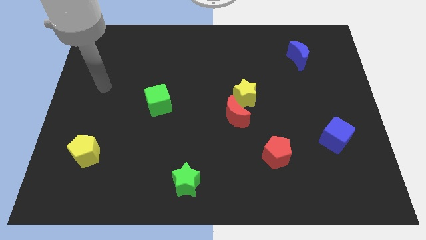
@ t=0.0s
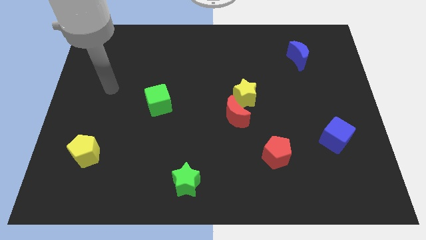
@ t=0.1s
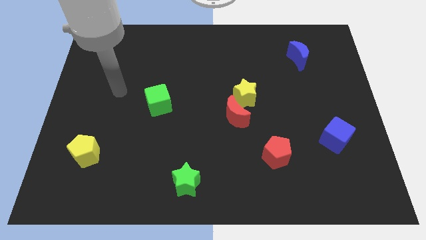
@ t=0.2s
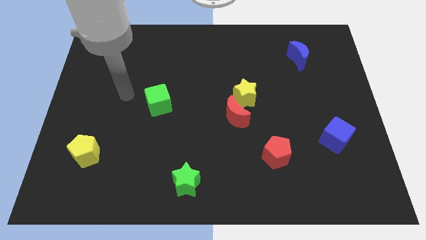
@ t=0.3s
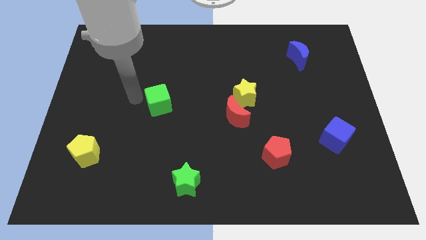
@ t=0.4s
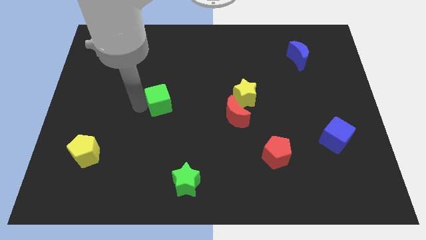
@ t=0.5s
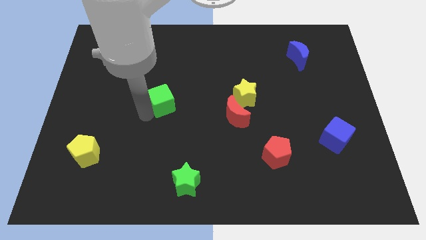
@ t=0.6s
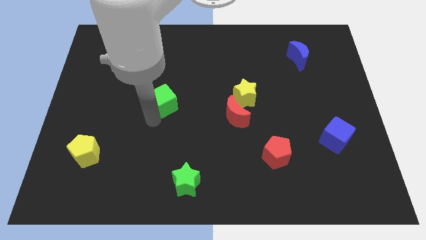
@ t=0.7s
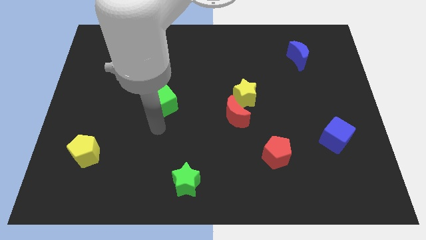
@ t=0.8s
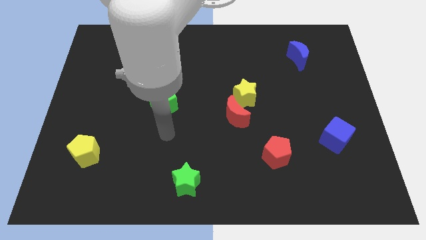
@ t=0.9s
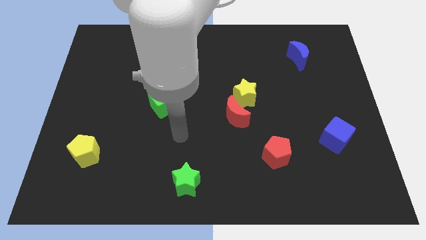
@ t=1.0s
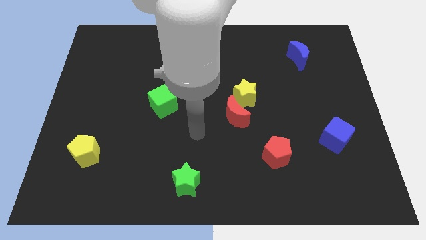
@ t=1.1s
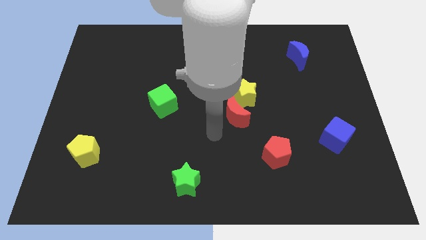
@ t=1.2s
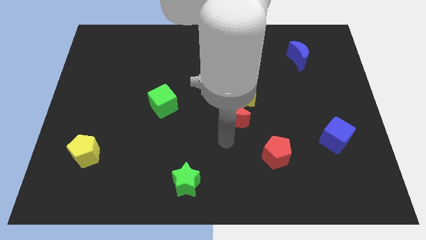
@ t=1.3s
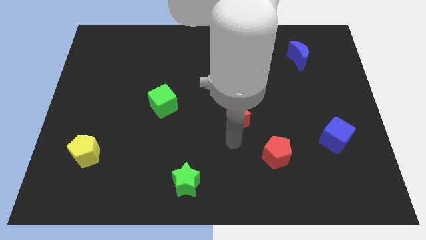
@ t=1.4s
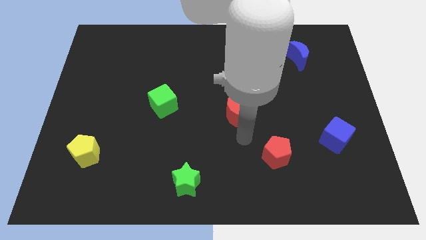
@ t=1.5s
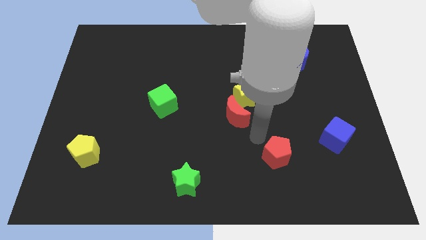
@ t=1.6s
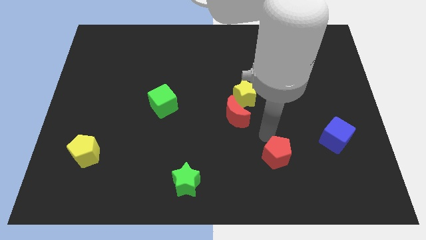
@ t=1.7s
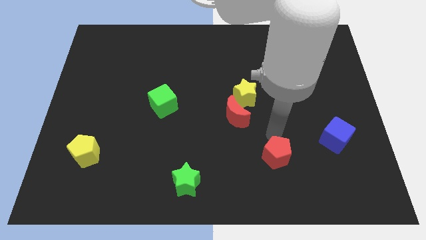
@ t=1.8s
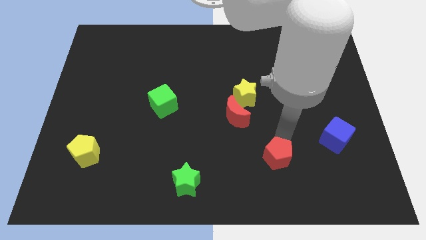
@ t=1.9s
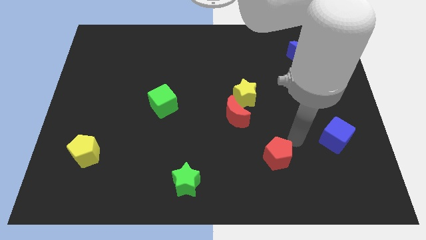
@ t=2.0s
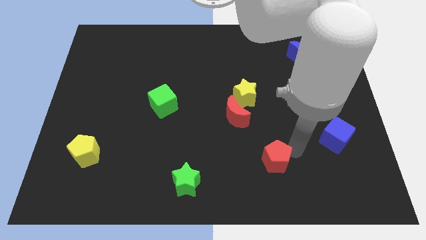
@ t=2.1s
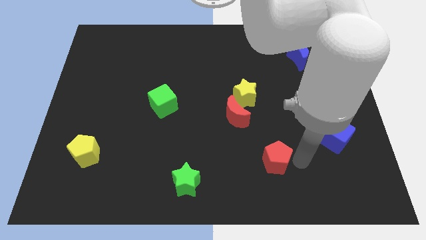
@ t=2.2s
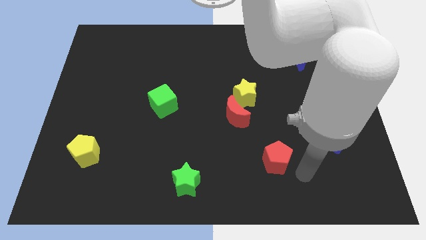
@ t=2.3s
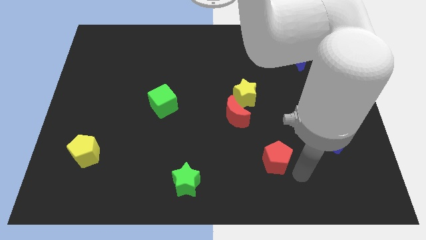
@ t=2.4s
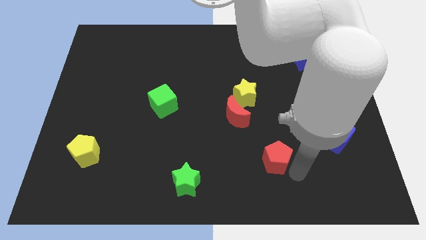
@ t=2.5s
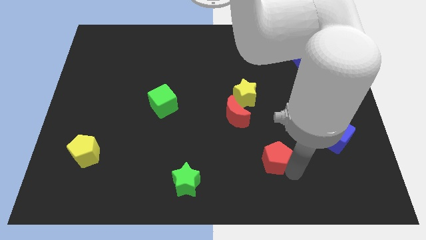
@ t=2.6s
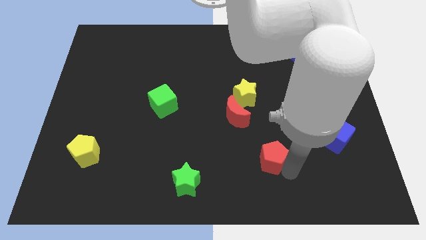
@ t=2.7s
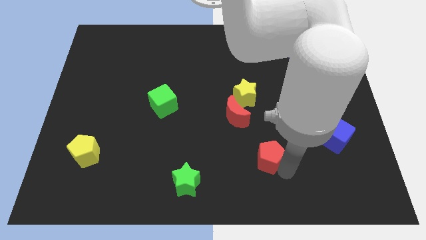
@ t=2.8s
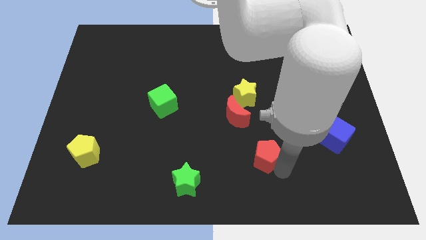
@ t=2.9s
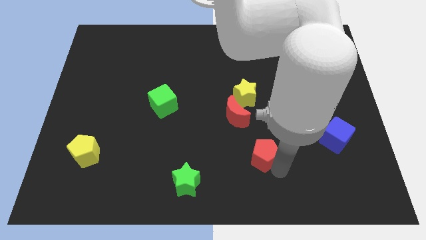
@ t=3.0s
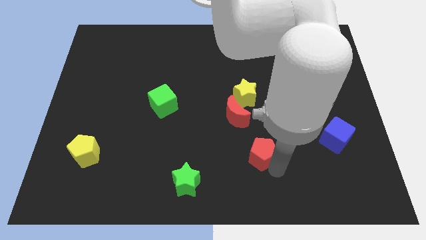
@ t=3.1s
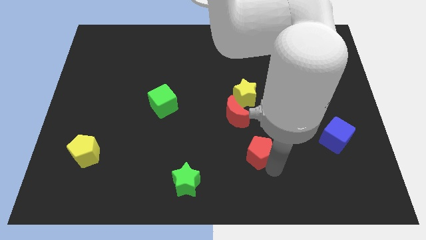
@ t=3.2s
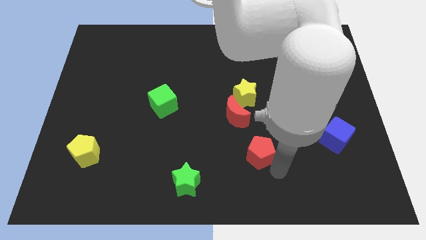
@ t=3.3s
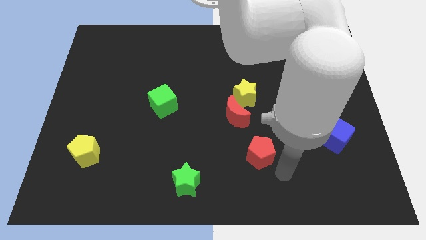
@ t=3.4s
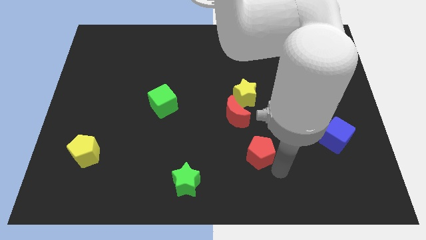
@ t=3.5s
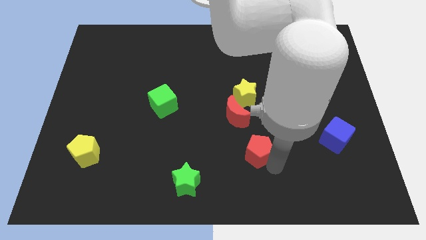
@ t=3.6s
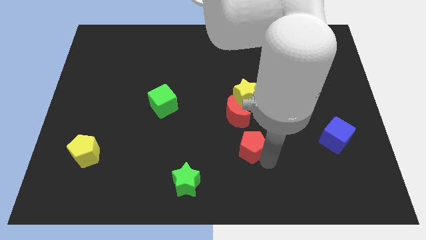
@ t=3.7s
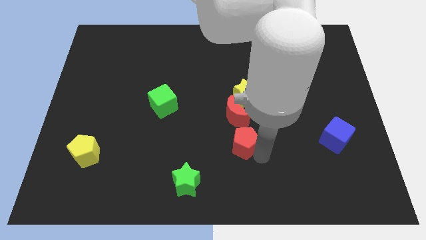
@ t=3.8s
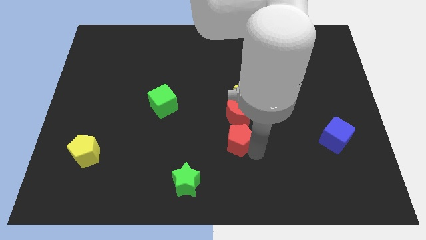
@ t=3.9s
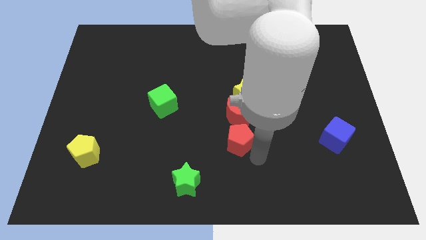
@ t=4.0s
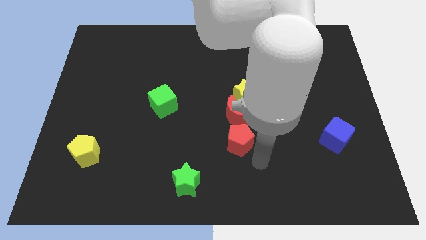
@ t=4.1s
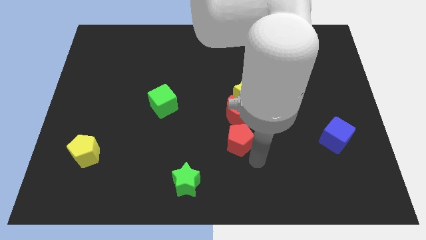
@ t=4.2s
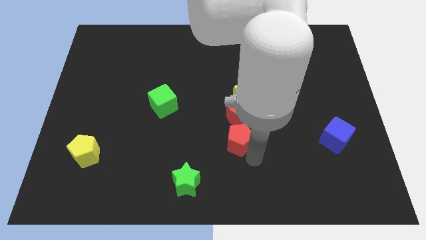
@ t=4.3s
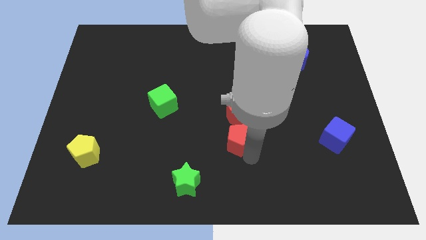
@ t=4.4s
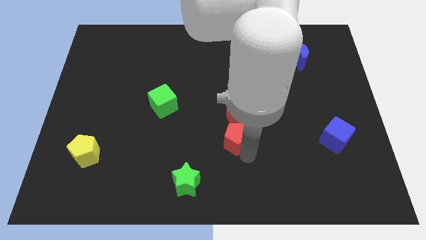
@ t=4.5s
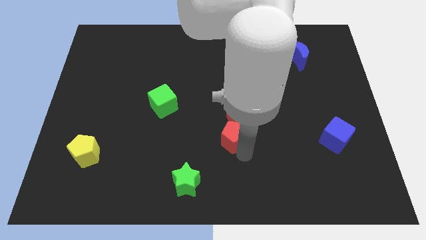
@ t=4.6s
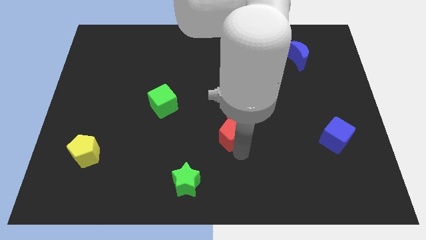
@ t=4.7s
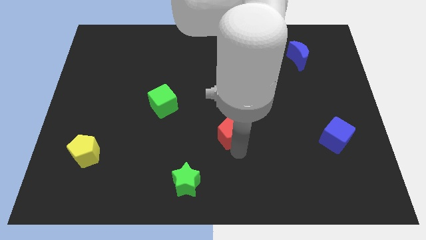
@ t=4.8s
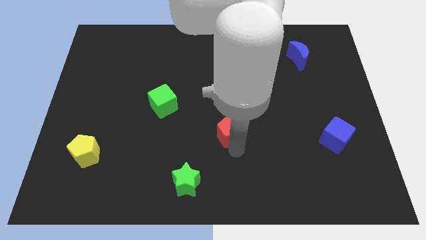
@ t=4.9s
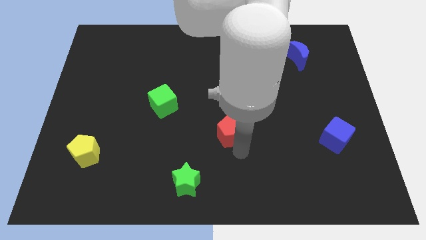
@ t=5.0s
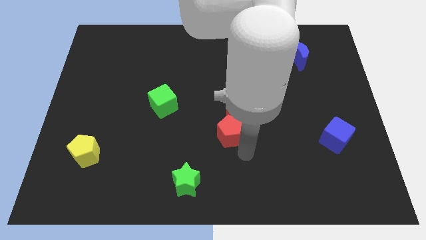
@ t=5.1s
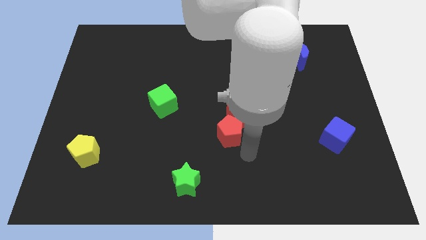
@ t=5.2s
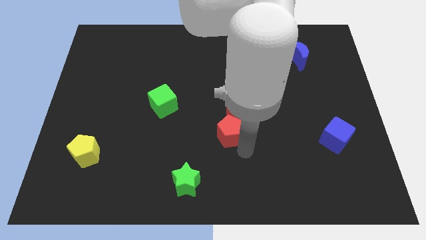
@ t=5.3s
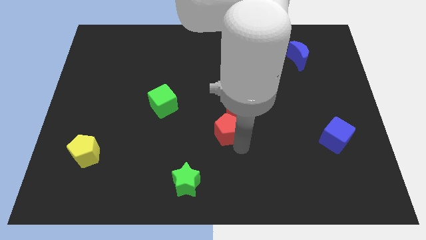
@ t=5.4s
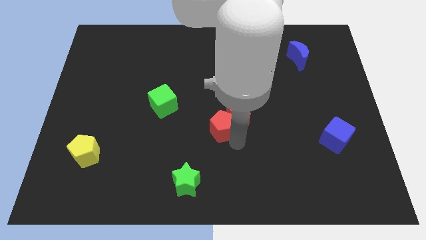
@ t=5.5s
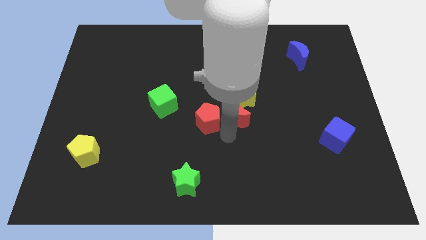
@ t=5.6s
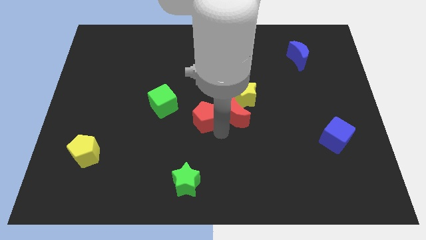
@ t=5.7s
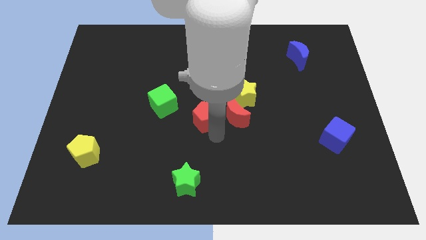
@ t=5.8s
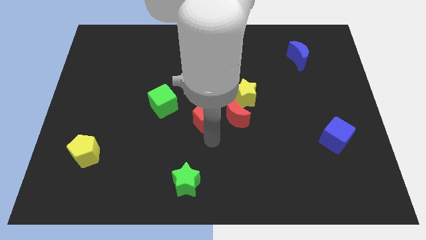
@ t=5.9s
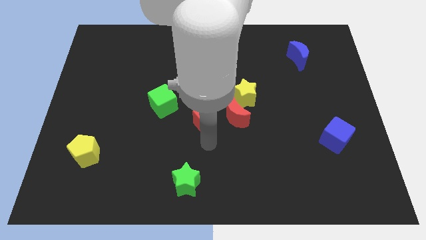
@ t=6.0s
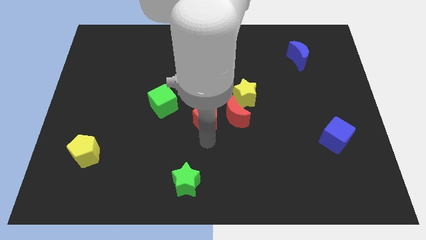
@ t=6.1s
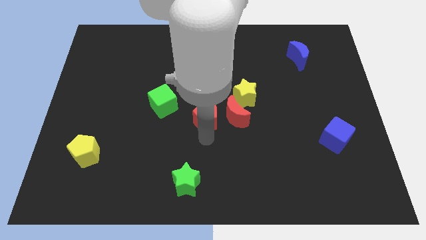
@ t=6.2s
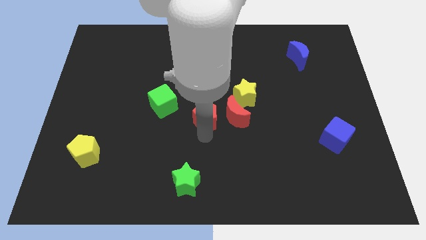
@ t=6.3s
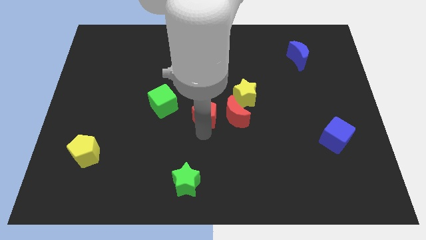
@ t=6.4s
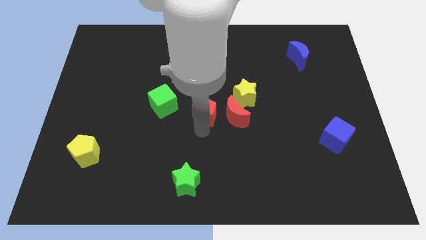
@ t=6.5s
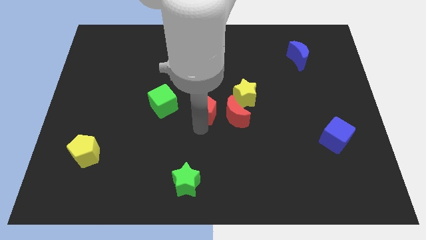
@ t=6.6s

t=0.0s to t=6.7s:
push the red pentagon to the left of the yellow star

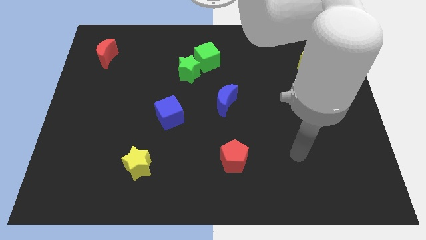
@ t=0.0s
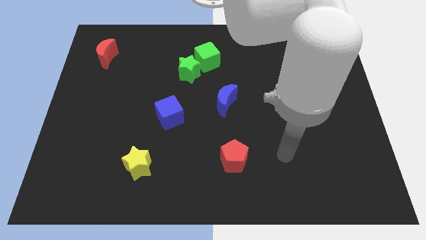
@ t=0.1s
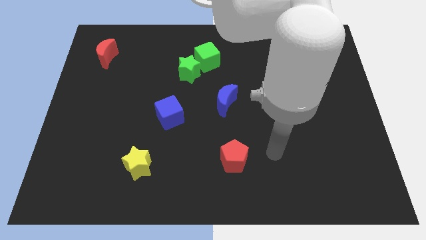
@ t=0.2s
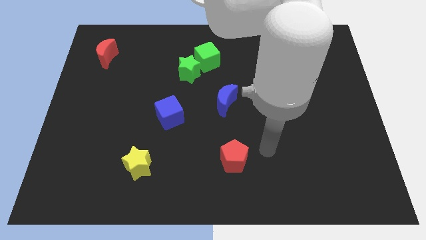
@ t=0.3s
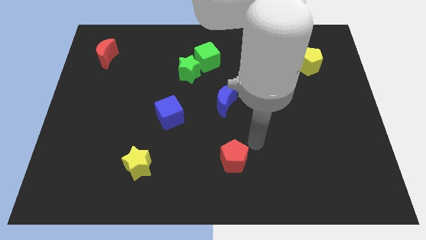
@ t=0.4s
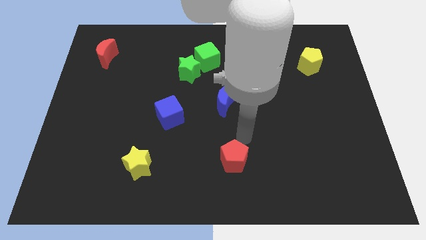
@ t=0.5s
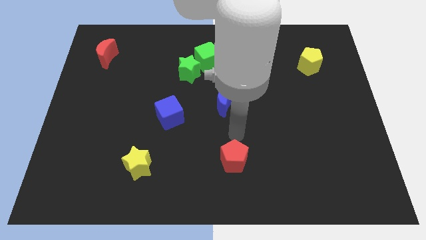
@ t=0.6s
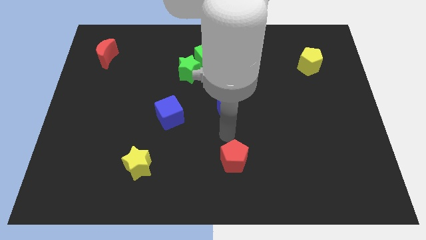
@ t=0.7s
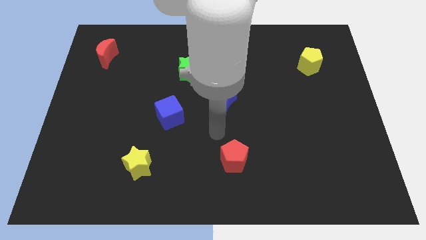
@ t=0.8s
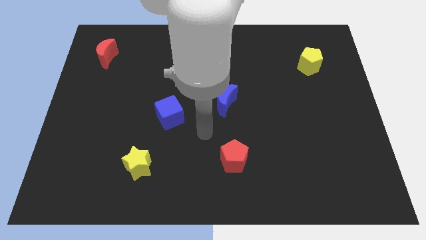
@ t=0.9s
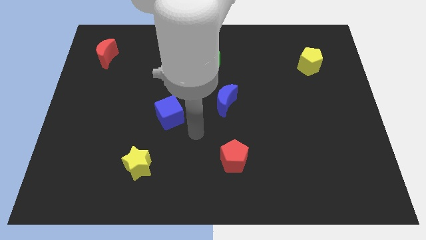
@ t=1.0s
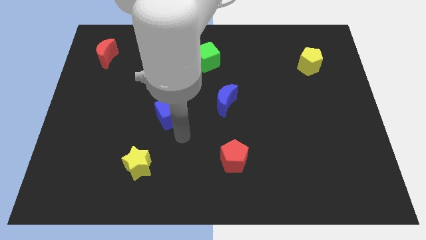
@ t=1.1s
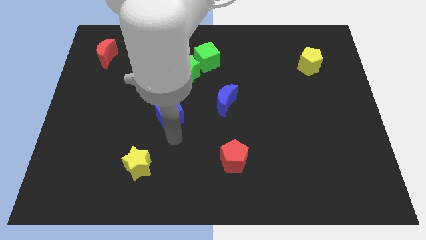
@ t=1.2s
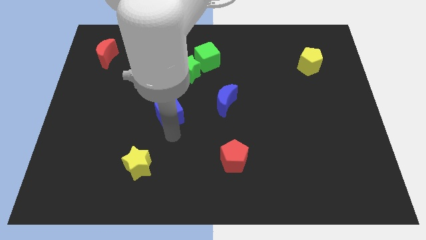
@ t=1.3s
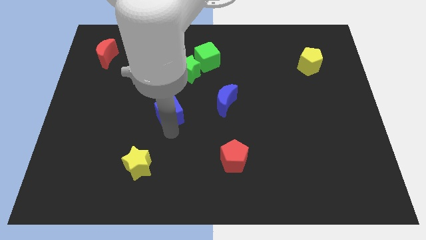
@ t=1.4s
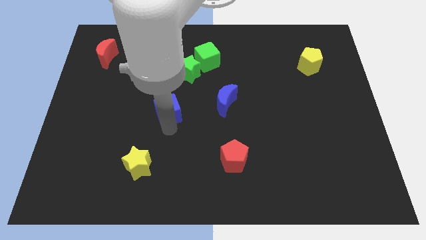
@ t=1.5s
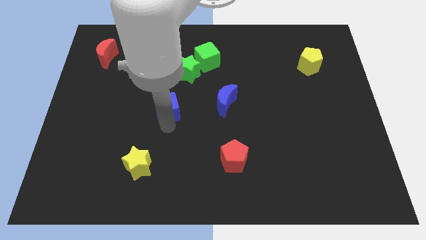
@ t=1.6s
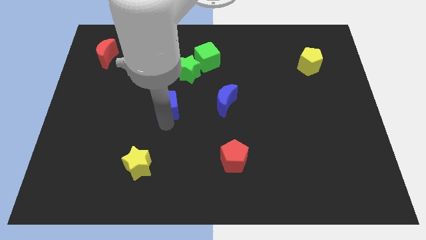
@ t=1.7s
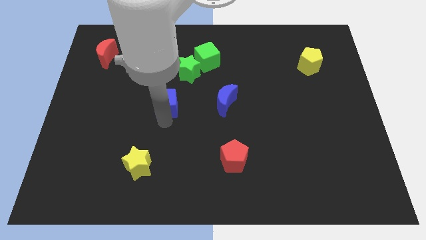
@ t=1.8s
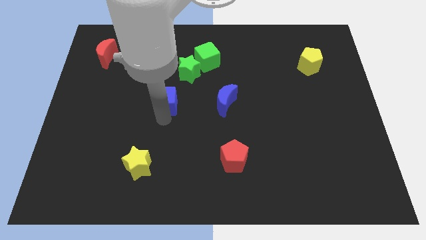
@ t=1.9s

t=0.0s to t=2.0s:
put the blue cube to the bottom left of the green star
